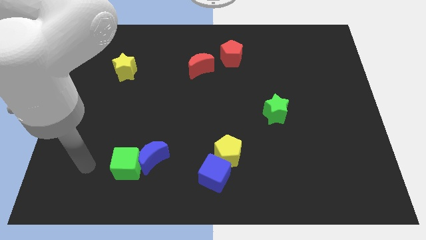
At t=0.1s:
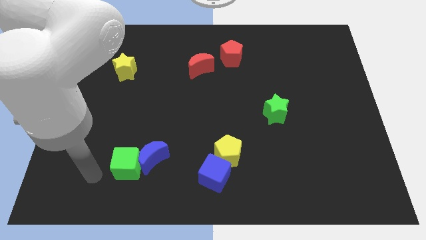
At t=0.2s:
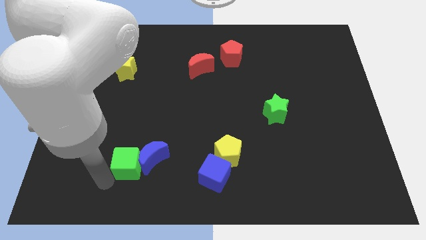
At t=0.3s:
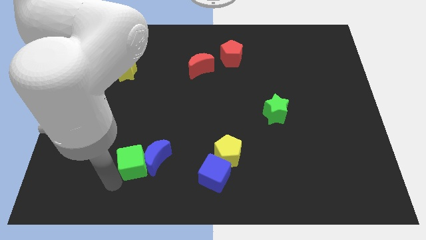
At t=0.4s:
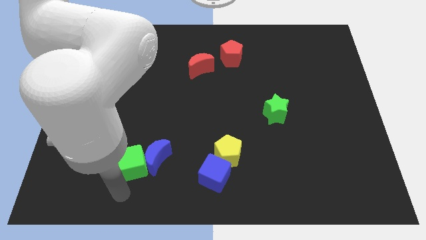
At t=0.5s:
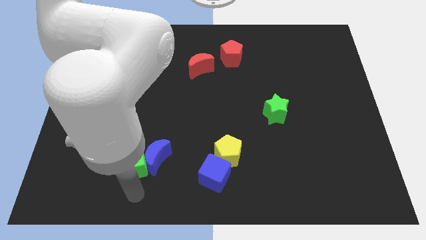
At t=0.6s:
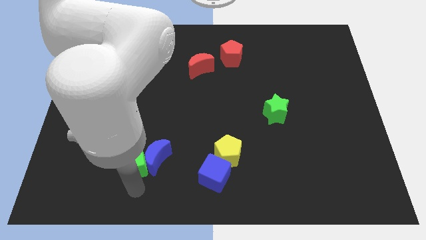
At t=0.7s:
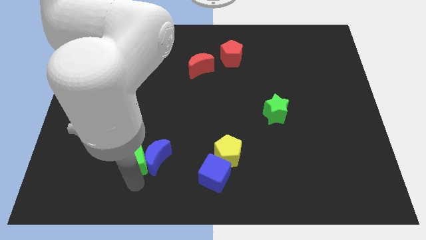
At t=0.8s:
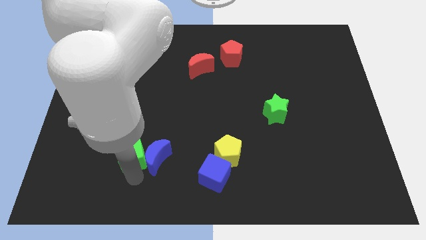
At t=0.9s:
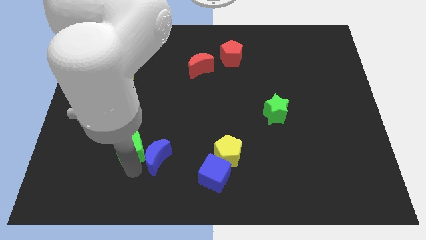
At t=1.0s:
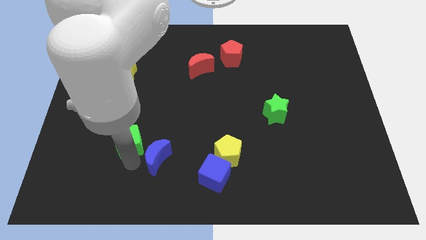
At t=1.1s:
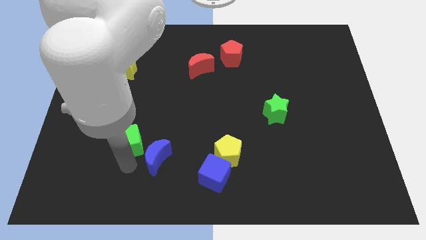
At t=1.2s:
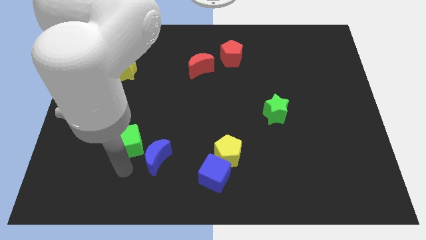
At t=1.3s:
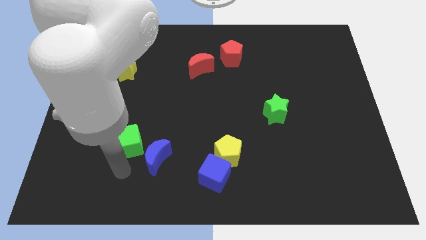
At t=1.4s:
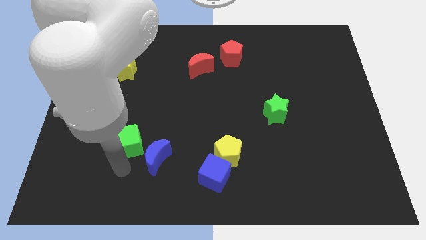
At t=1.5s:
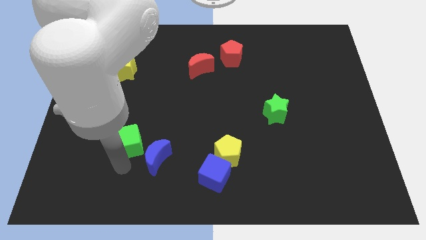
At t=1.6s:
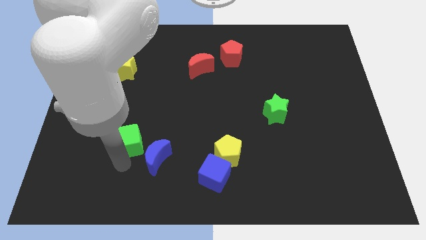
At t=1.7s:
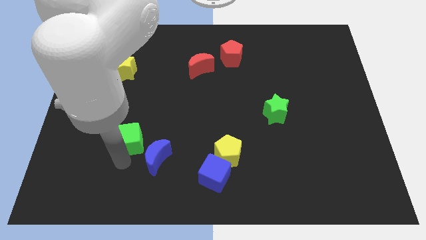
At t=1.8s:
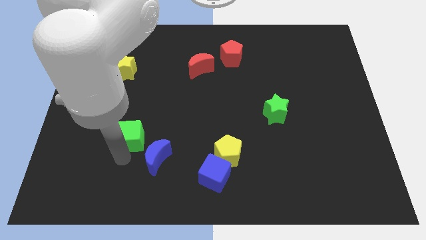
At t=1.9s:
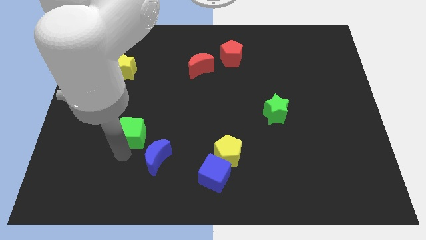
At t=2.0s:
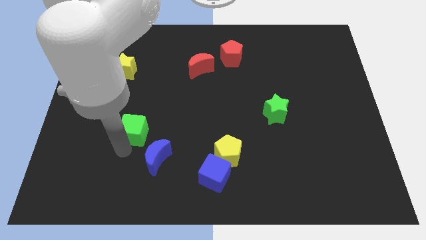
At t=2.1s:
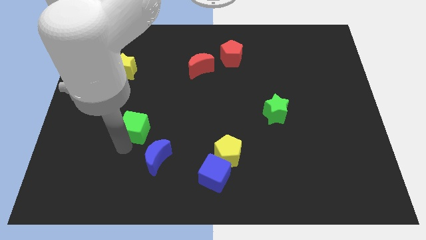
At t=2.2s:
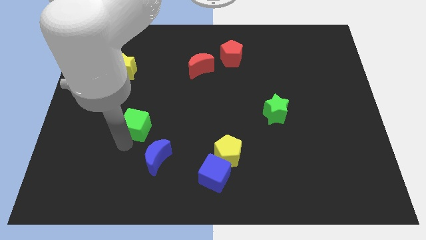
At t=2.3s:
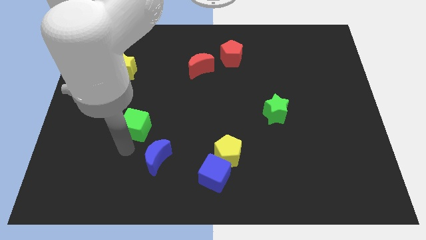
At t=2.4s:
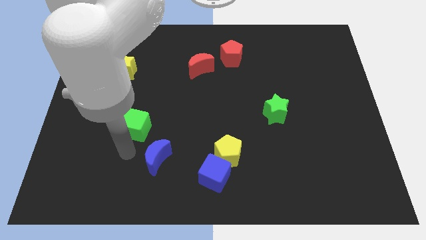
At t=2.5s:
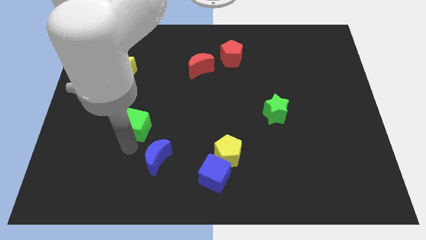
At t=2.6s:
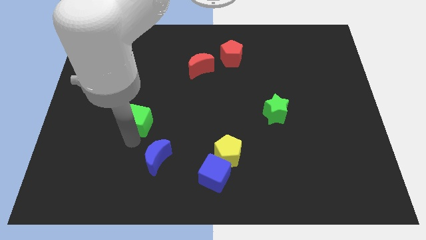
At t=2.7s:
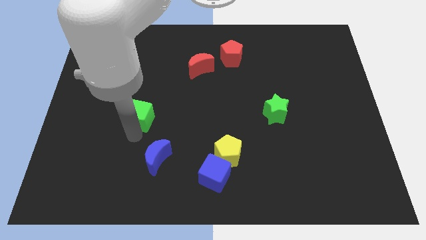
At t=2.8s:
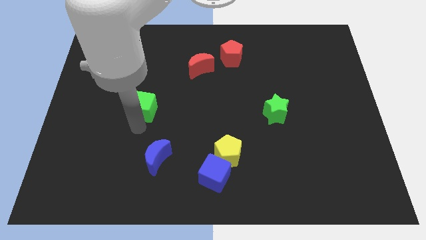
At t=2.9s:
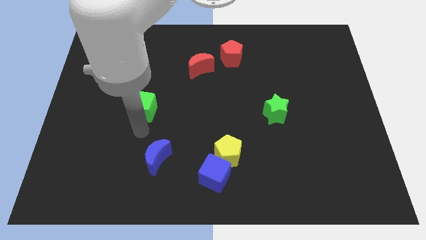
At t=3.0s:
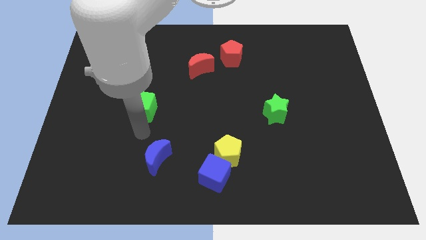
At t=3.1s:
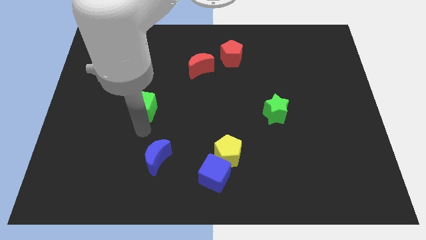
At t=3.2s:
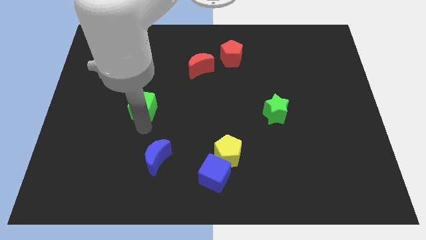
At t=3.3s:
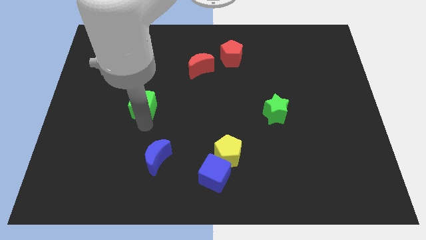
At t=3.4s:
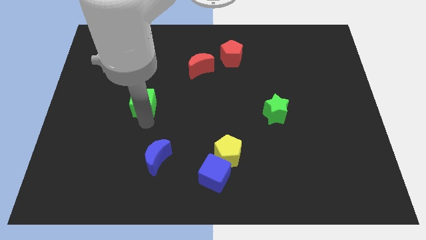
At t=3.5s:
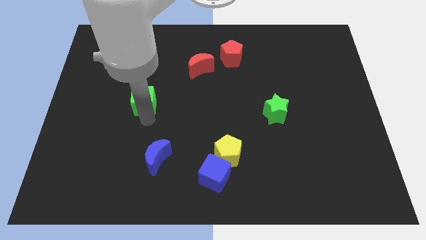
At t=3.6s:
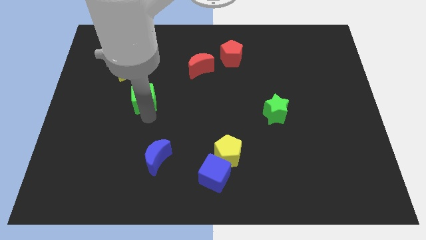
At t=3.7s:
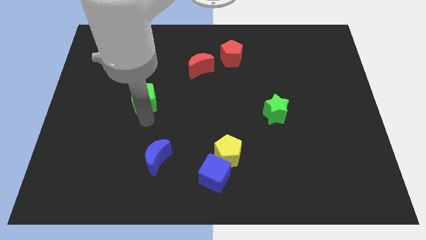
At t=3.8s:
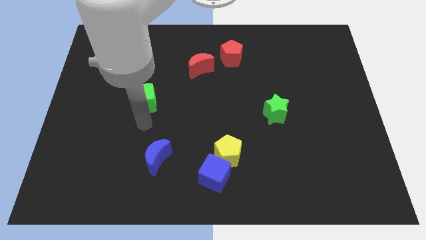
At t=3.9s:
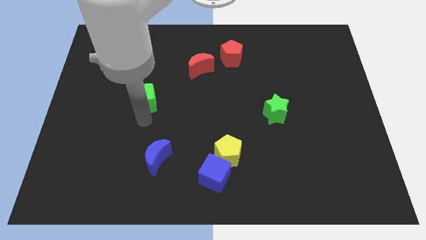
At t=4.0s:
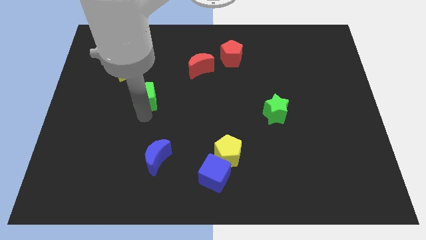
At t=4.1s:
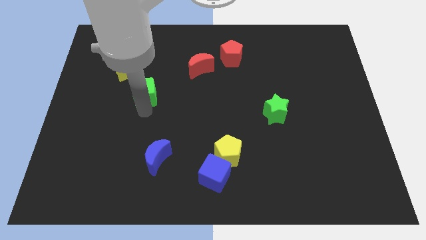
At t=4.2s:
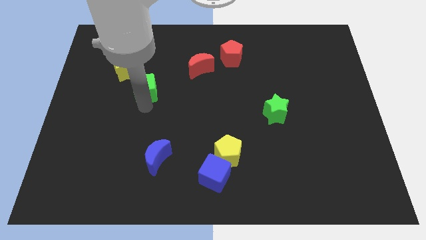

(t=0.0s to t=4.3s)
push the green cube upwards

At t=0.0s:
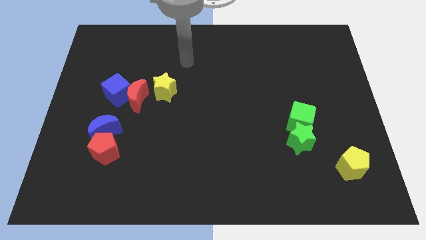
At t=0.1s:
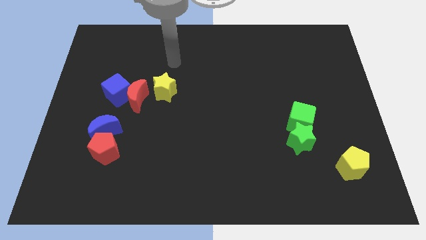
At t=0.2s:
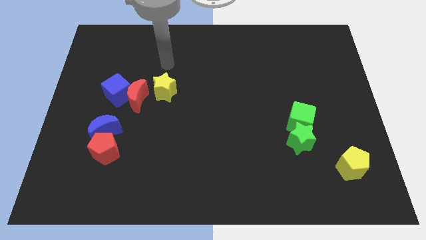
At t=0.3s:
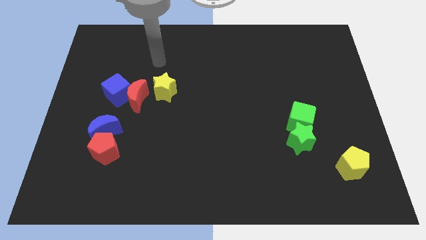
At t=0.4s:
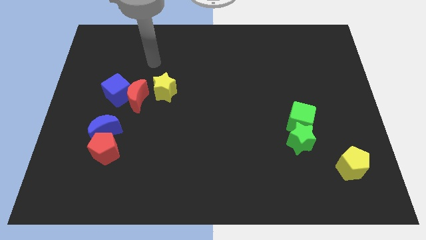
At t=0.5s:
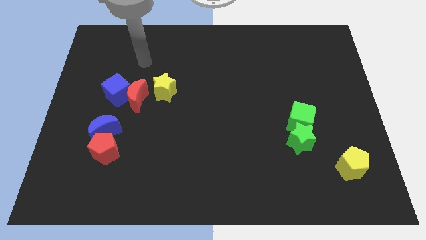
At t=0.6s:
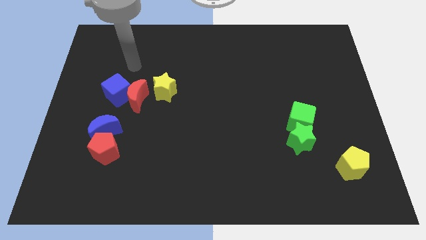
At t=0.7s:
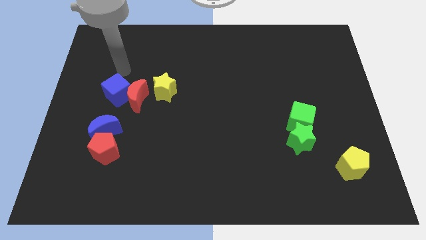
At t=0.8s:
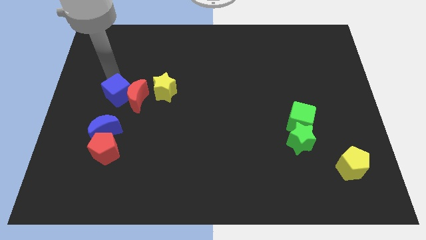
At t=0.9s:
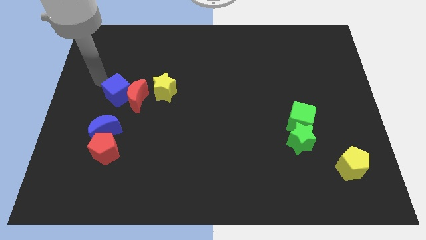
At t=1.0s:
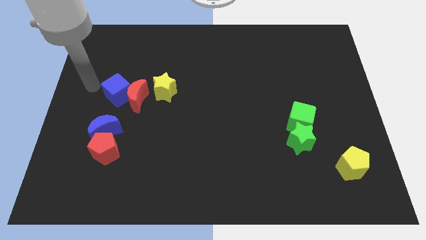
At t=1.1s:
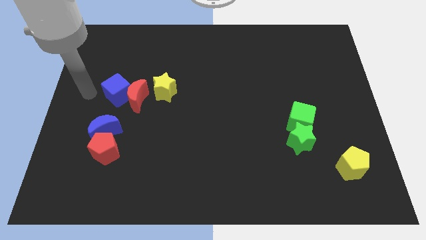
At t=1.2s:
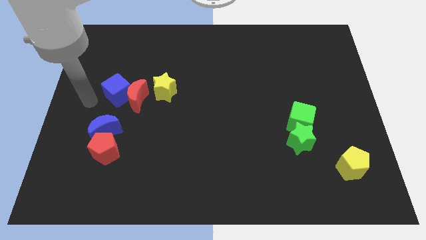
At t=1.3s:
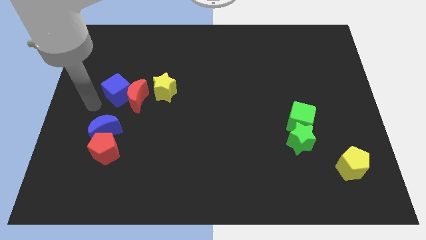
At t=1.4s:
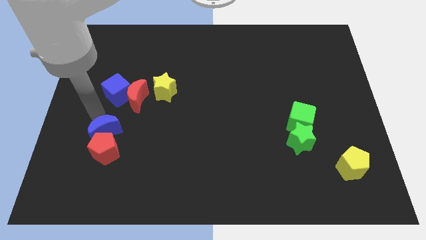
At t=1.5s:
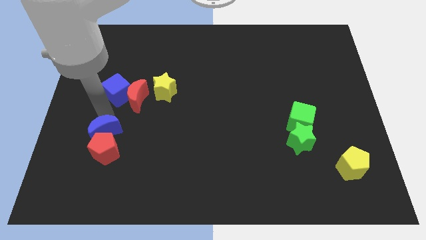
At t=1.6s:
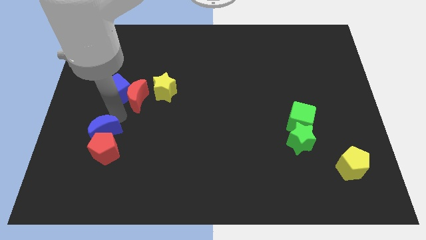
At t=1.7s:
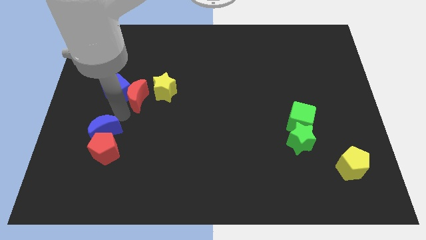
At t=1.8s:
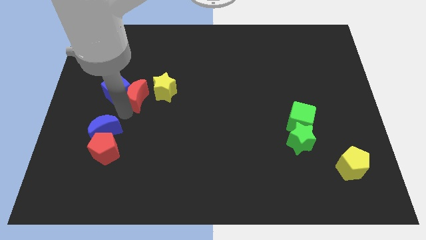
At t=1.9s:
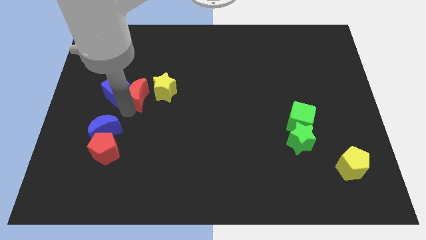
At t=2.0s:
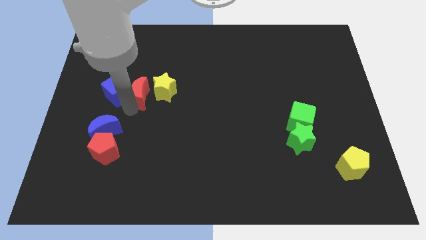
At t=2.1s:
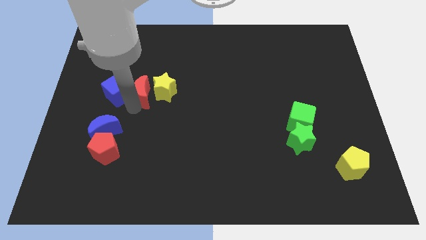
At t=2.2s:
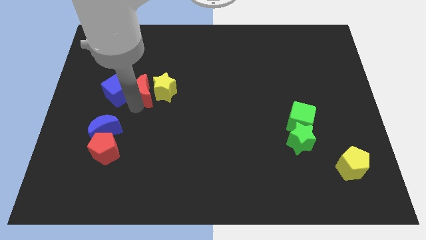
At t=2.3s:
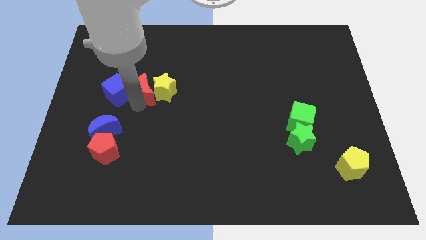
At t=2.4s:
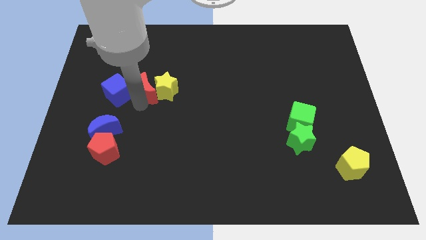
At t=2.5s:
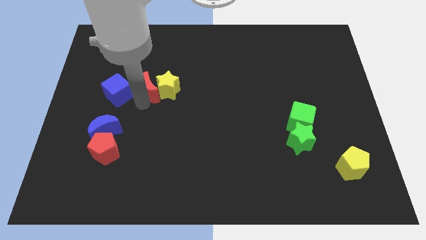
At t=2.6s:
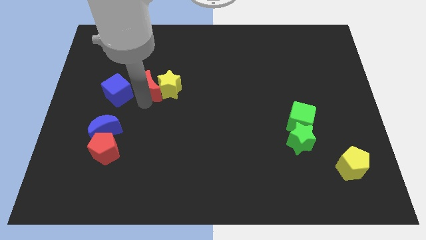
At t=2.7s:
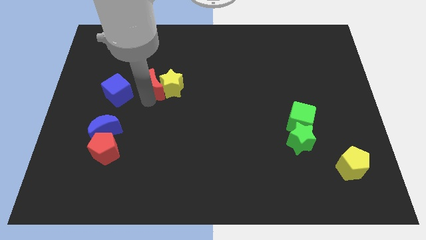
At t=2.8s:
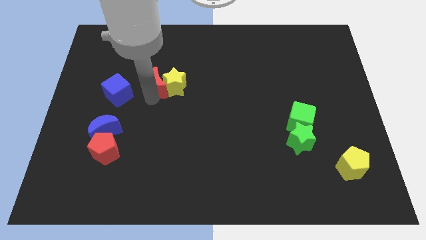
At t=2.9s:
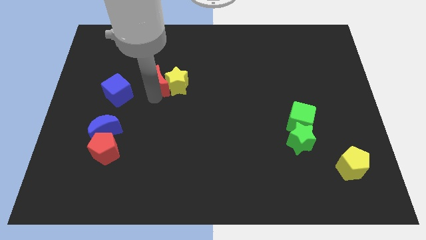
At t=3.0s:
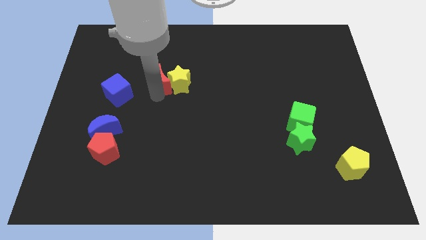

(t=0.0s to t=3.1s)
slightly push the red moon up and then to the right

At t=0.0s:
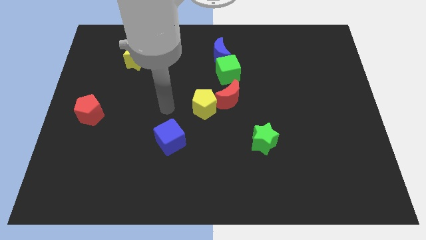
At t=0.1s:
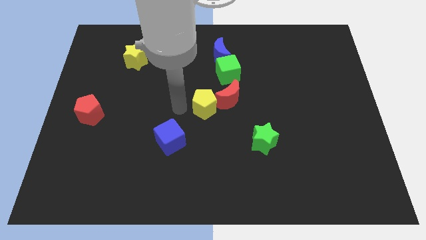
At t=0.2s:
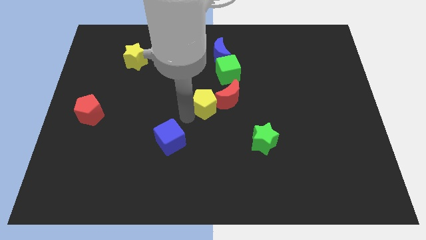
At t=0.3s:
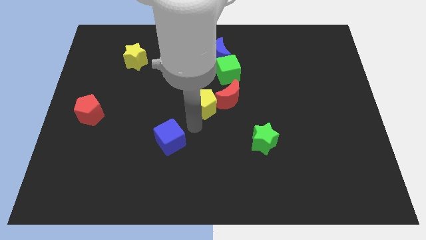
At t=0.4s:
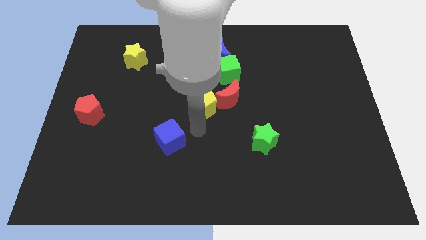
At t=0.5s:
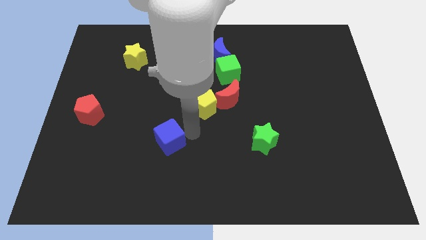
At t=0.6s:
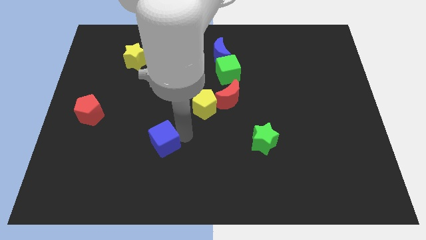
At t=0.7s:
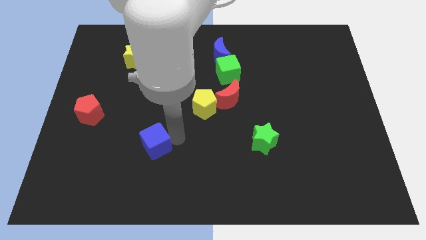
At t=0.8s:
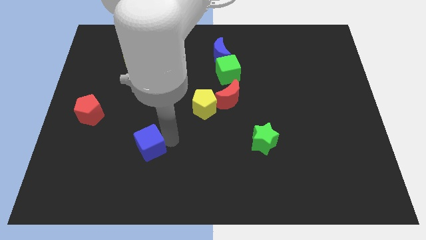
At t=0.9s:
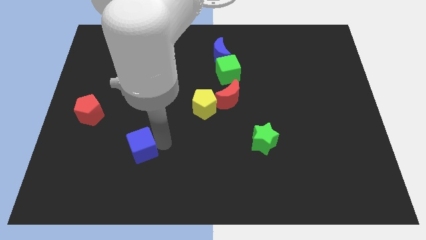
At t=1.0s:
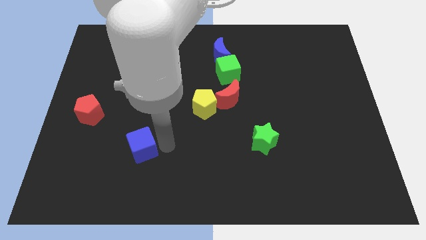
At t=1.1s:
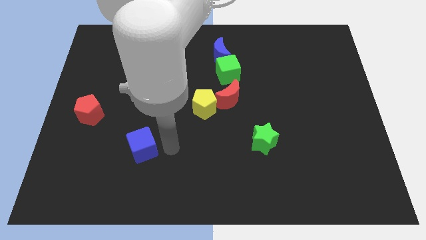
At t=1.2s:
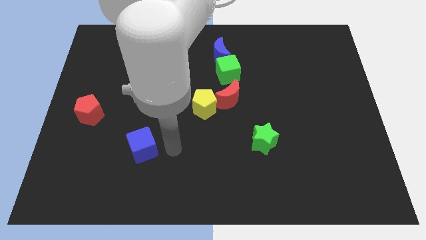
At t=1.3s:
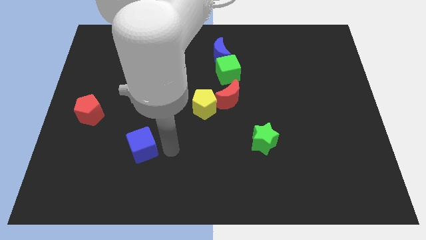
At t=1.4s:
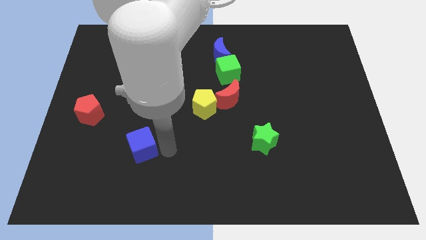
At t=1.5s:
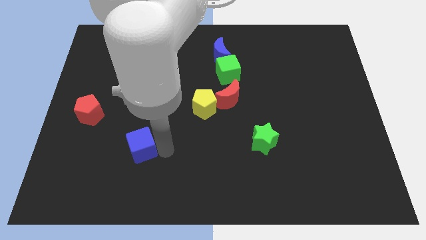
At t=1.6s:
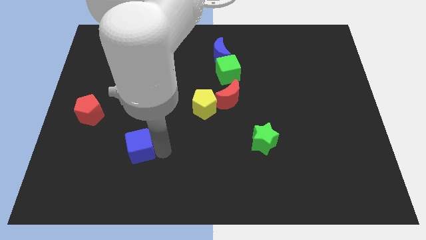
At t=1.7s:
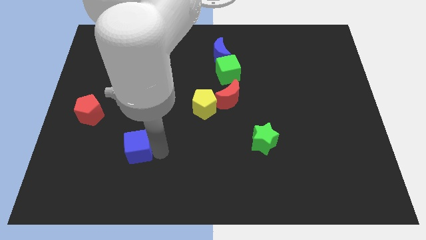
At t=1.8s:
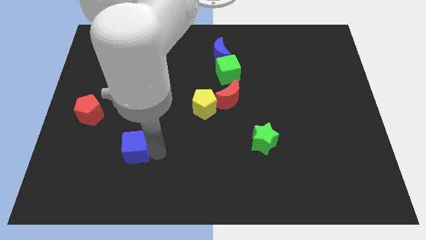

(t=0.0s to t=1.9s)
move the blue cube to the left somewhat
